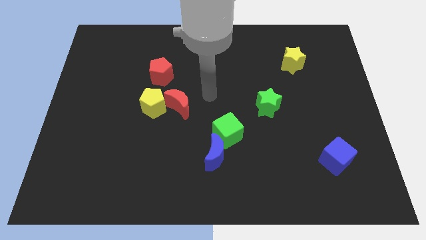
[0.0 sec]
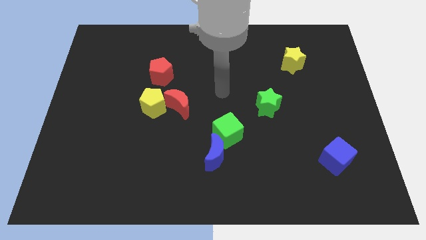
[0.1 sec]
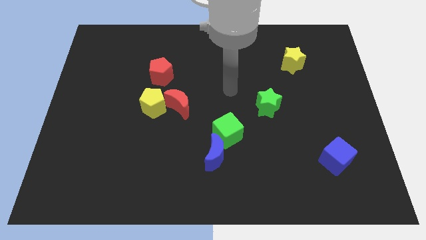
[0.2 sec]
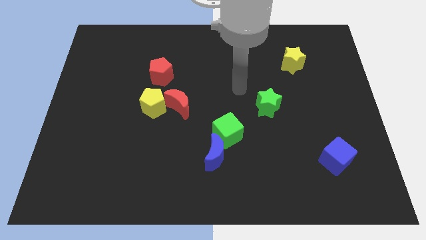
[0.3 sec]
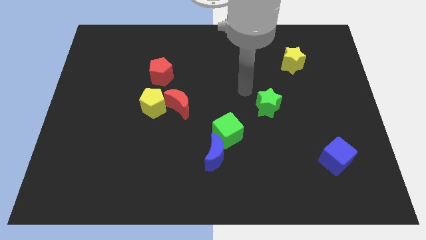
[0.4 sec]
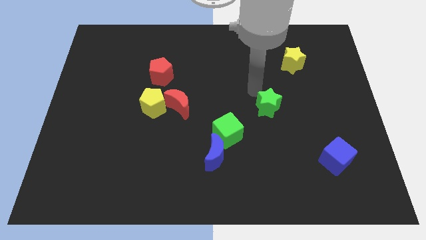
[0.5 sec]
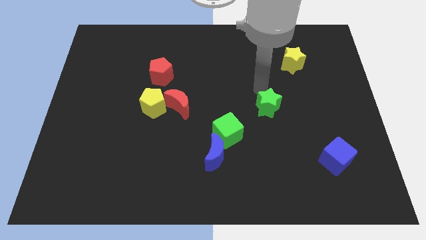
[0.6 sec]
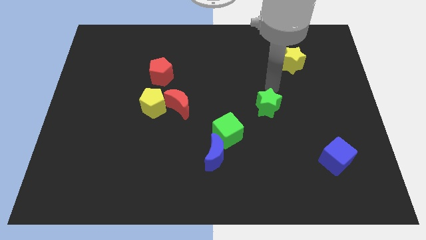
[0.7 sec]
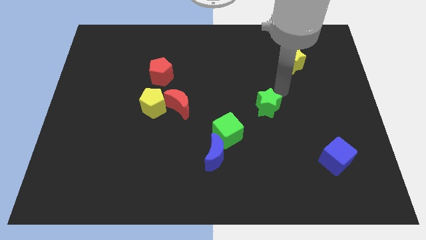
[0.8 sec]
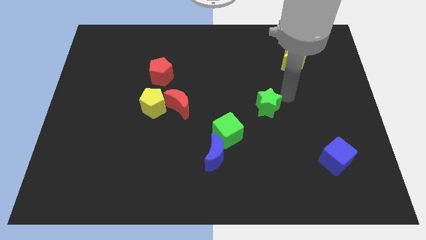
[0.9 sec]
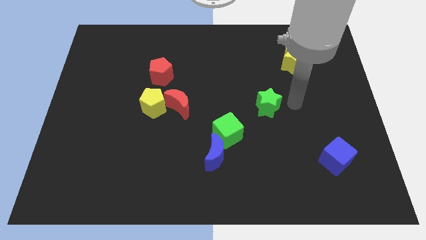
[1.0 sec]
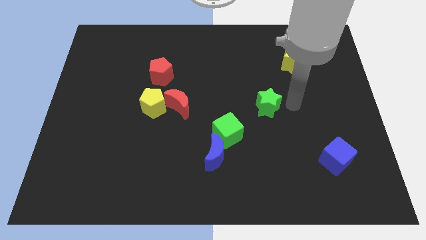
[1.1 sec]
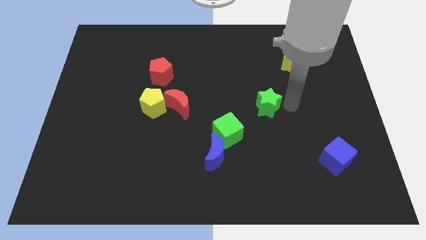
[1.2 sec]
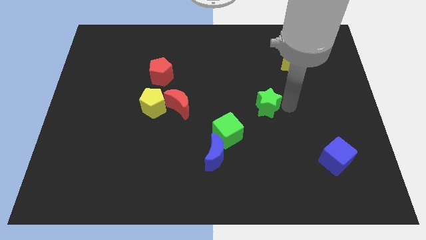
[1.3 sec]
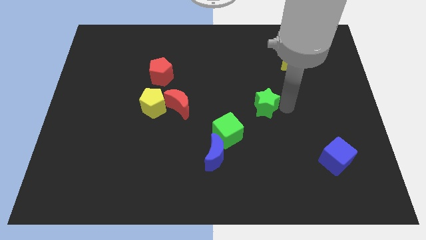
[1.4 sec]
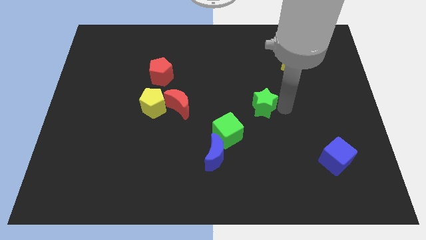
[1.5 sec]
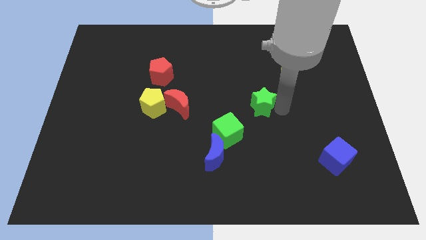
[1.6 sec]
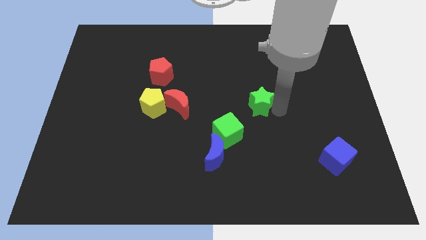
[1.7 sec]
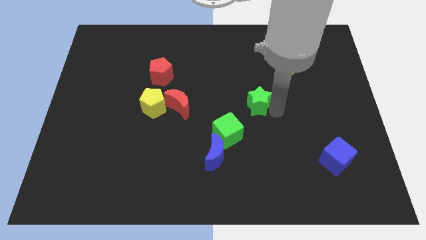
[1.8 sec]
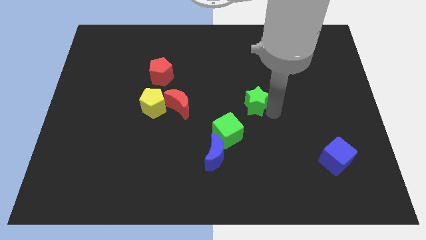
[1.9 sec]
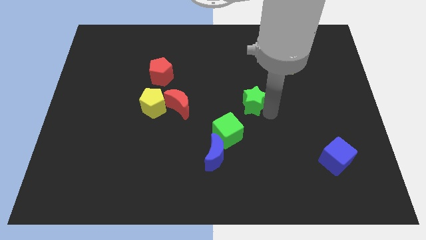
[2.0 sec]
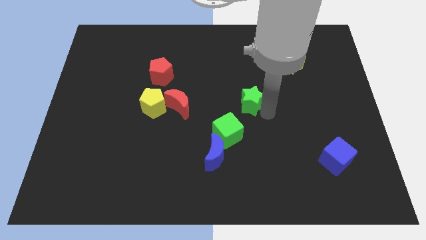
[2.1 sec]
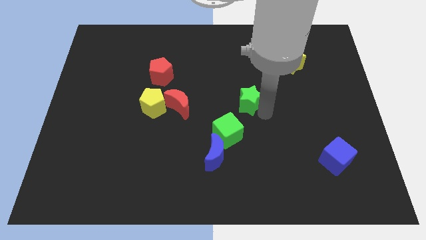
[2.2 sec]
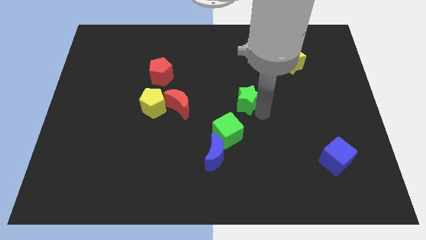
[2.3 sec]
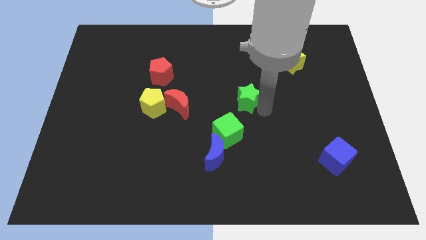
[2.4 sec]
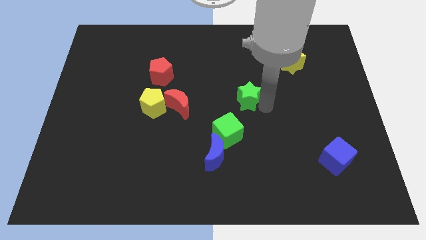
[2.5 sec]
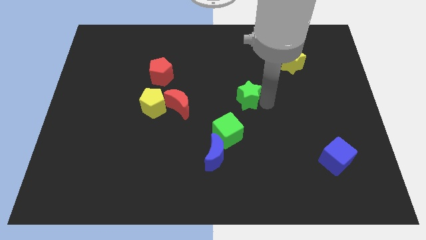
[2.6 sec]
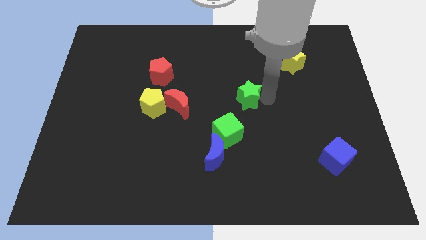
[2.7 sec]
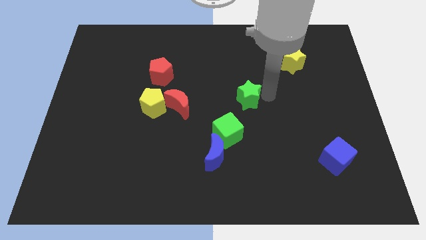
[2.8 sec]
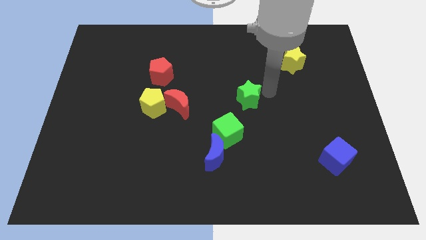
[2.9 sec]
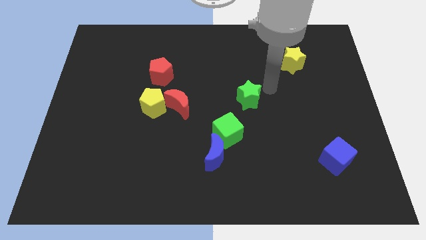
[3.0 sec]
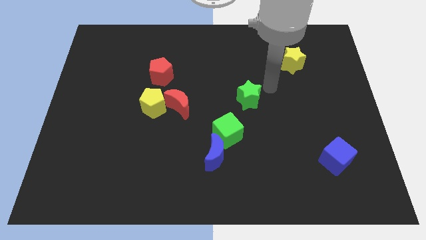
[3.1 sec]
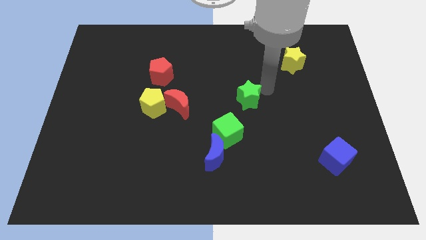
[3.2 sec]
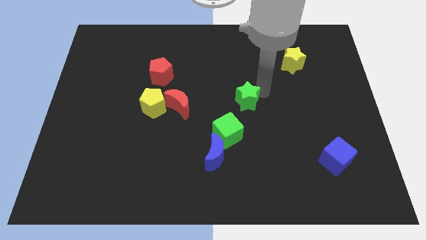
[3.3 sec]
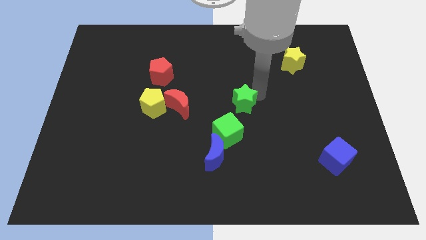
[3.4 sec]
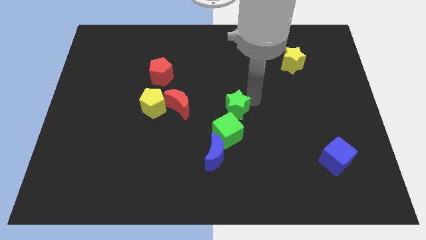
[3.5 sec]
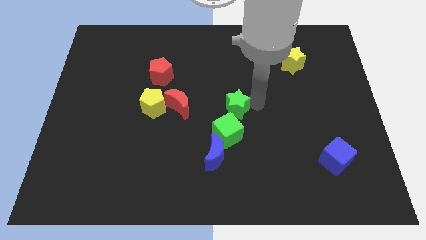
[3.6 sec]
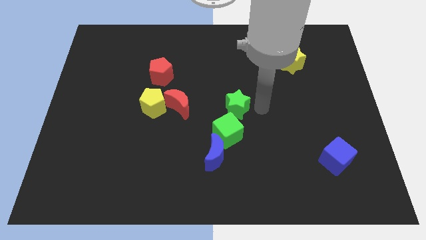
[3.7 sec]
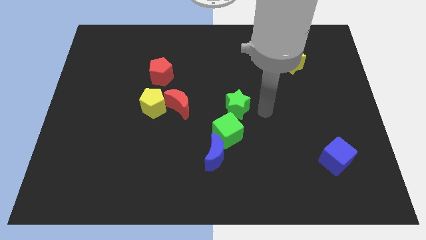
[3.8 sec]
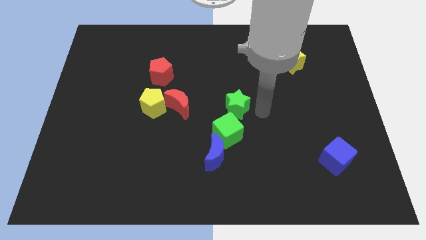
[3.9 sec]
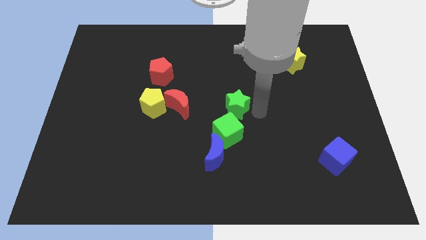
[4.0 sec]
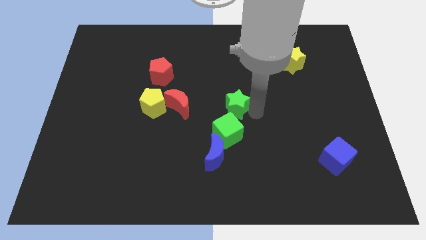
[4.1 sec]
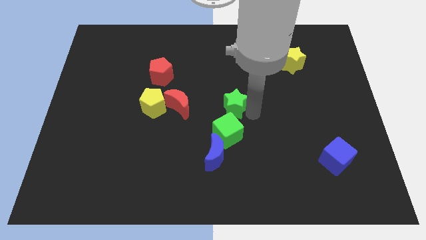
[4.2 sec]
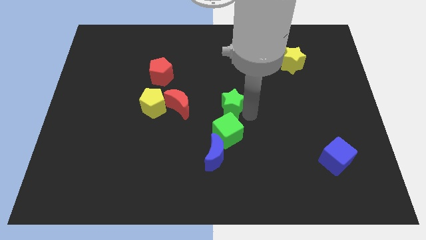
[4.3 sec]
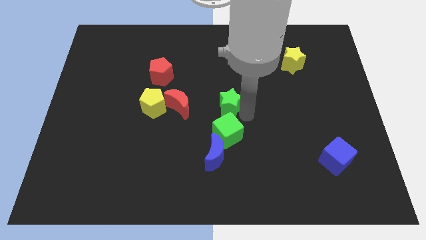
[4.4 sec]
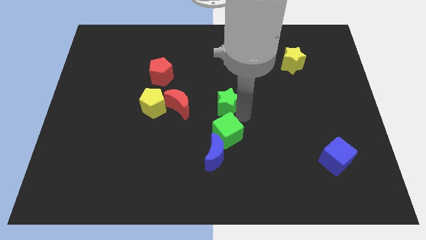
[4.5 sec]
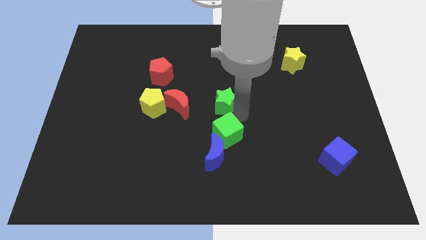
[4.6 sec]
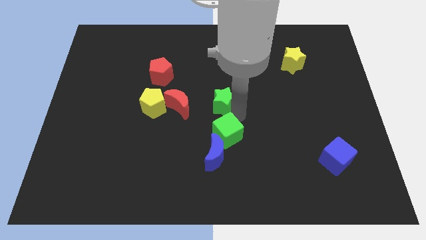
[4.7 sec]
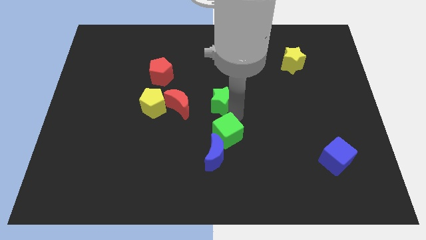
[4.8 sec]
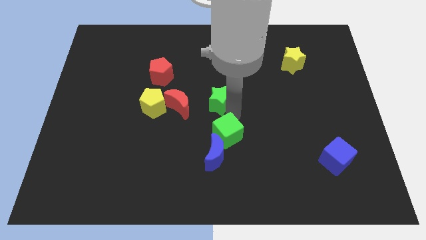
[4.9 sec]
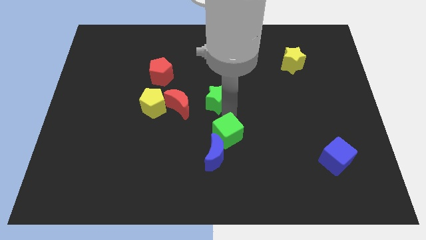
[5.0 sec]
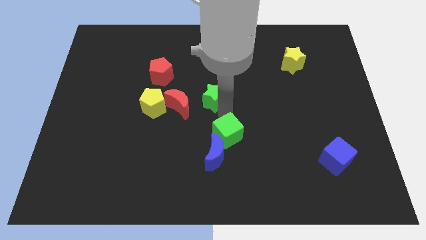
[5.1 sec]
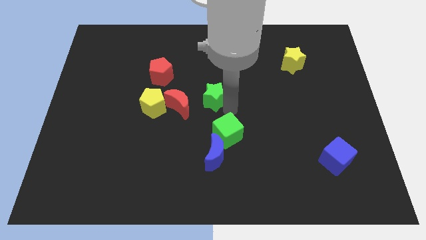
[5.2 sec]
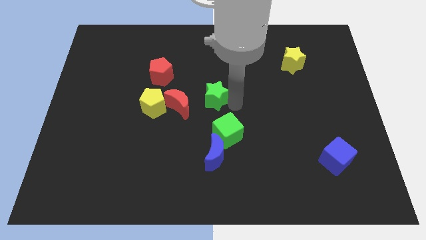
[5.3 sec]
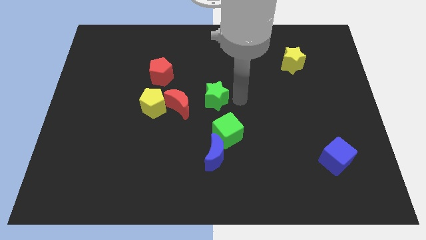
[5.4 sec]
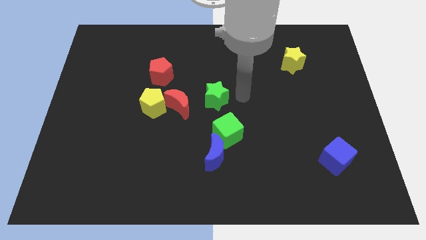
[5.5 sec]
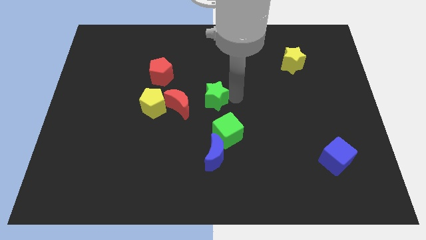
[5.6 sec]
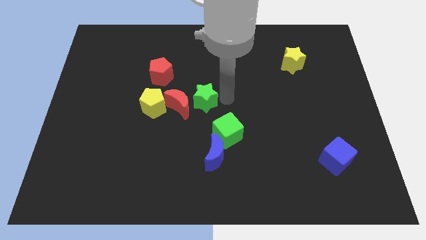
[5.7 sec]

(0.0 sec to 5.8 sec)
put the green star next to the red moon

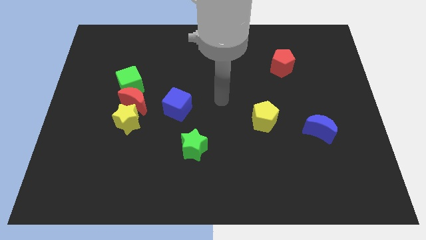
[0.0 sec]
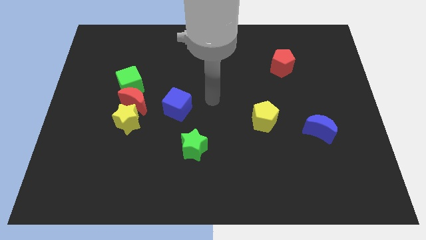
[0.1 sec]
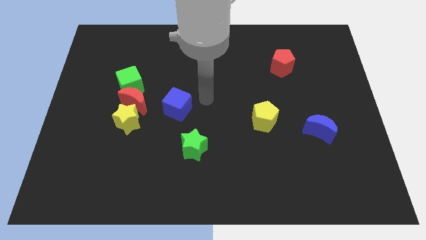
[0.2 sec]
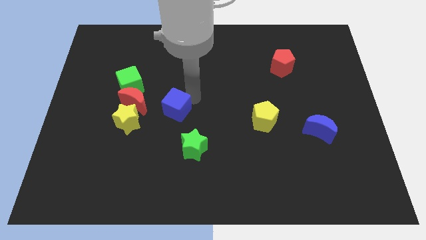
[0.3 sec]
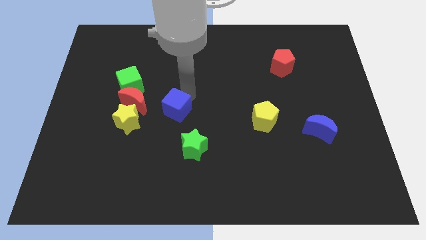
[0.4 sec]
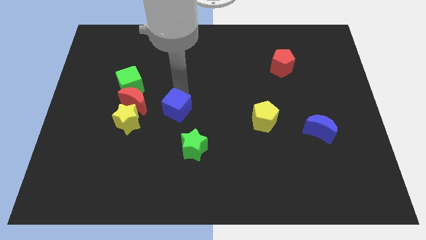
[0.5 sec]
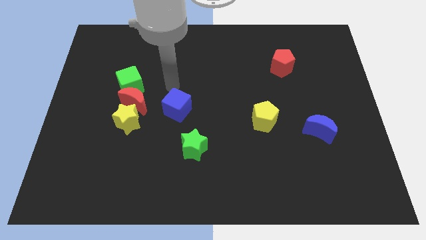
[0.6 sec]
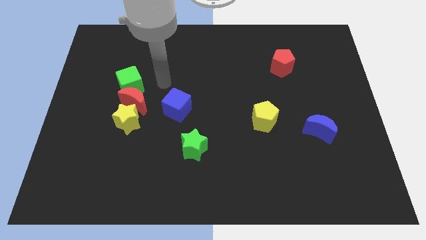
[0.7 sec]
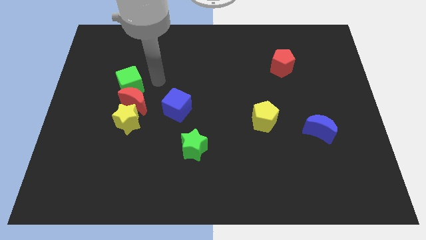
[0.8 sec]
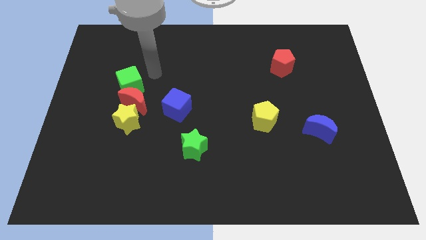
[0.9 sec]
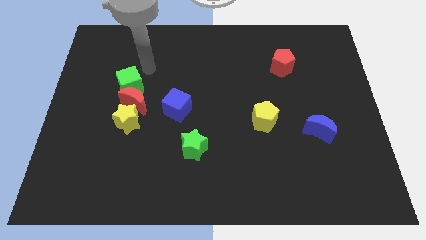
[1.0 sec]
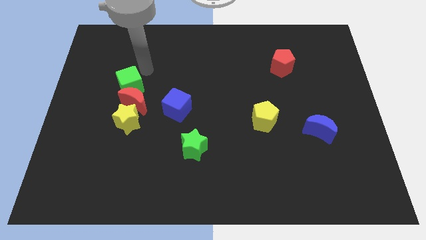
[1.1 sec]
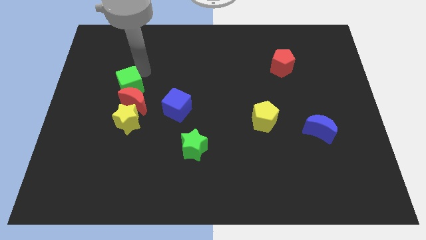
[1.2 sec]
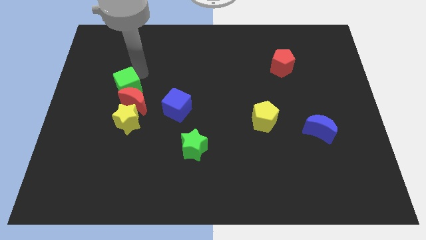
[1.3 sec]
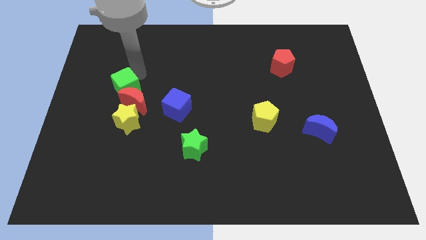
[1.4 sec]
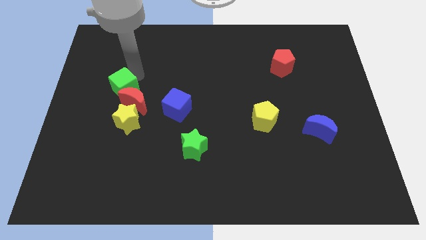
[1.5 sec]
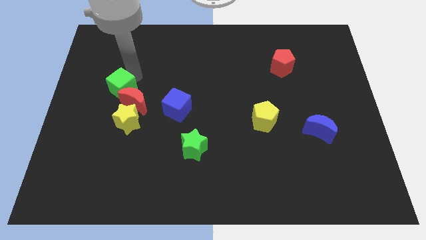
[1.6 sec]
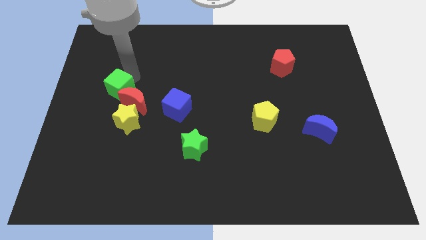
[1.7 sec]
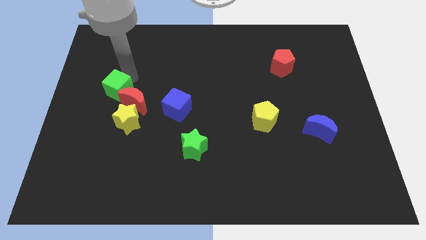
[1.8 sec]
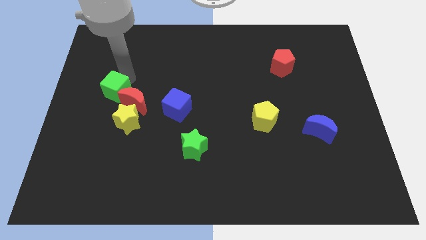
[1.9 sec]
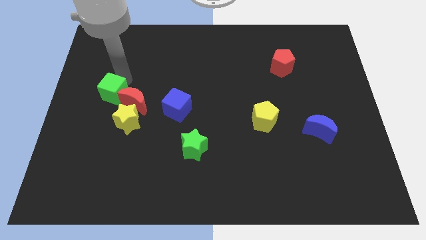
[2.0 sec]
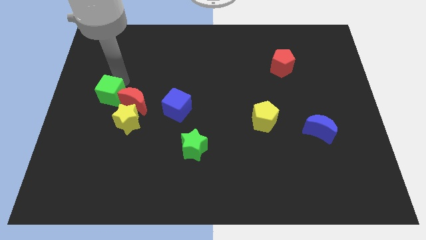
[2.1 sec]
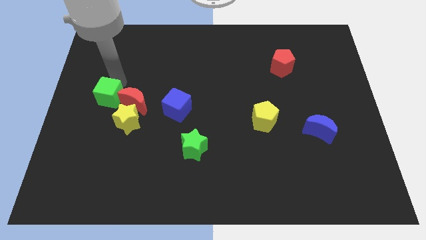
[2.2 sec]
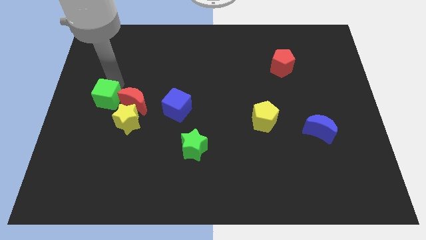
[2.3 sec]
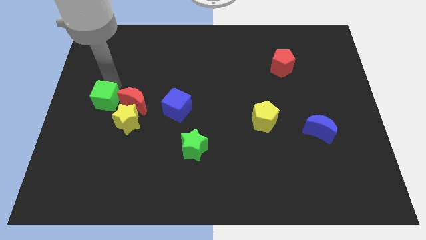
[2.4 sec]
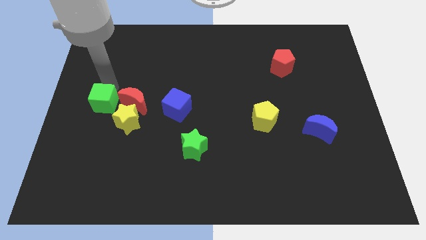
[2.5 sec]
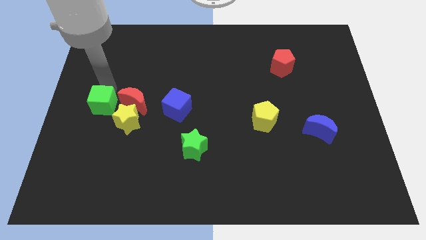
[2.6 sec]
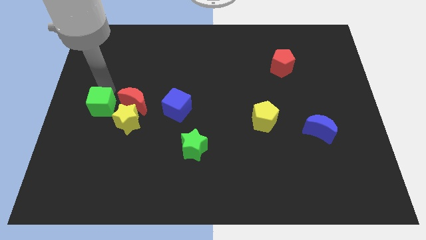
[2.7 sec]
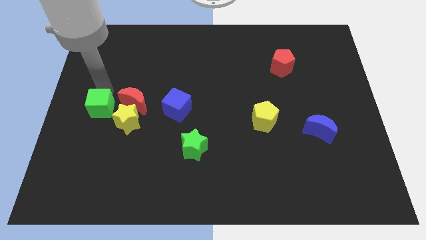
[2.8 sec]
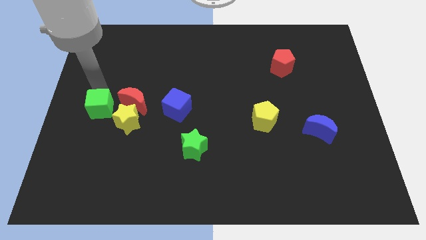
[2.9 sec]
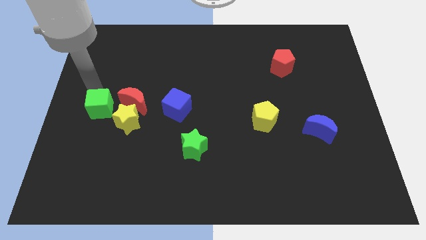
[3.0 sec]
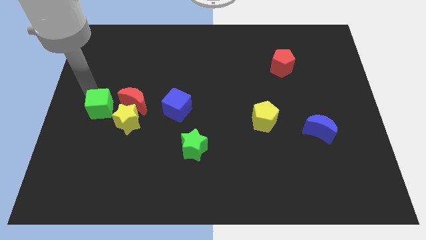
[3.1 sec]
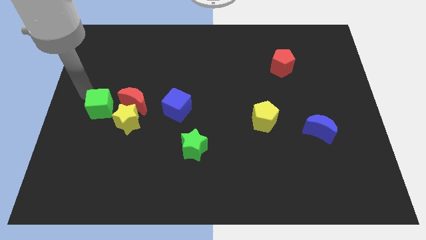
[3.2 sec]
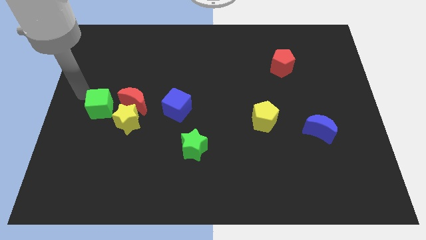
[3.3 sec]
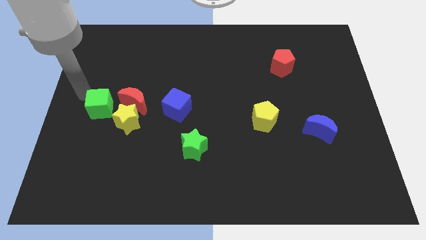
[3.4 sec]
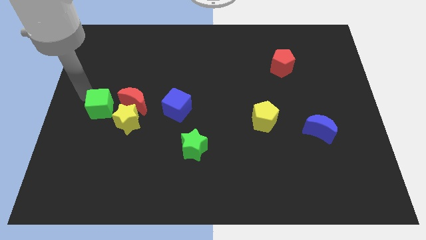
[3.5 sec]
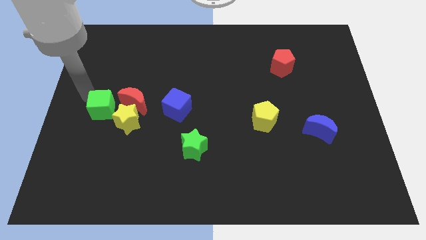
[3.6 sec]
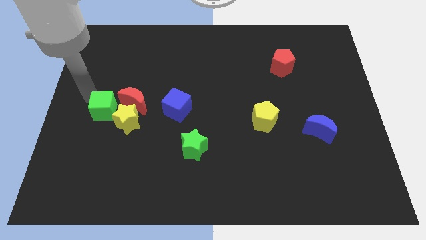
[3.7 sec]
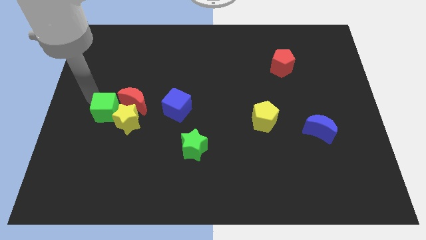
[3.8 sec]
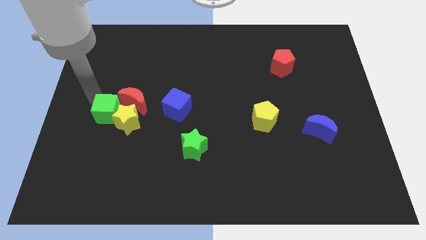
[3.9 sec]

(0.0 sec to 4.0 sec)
slide the green cube next to the yellow star
